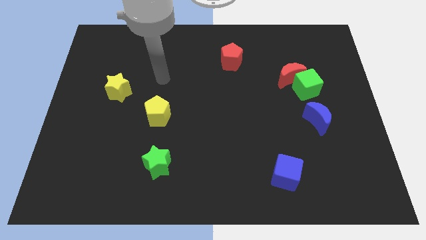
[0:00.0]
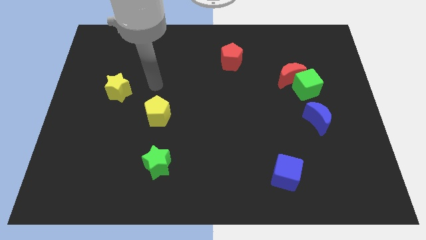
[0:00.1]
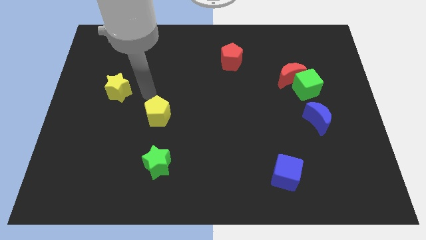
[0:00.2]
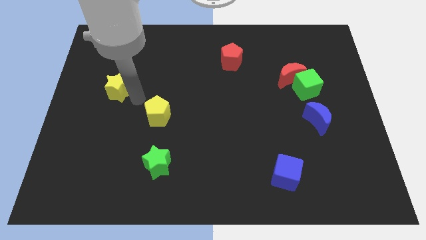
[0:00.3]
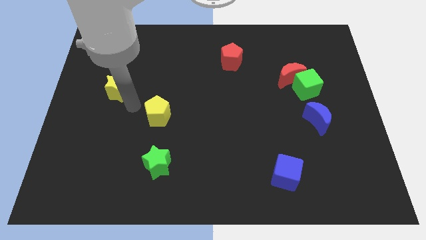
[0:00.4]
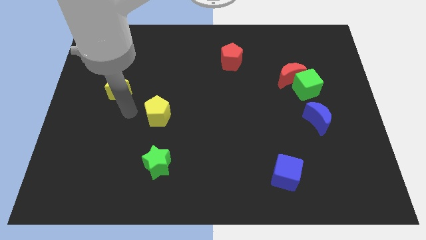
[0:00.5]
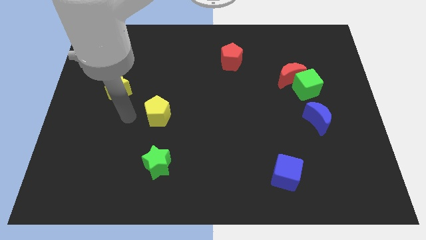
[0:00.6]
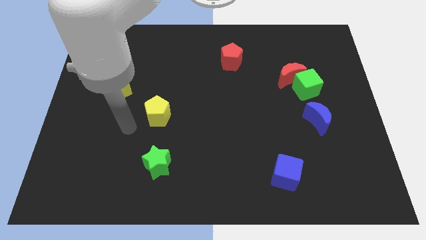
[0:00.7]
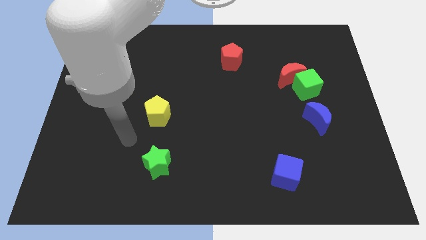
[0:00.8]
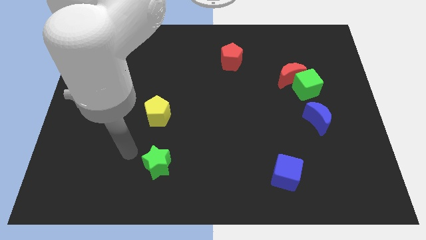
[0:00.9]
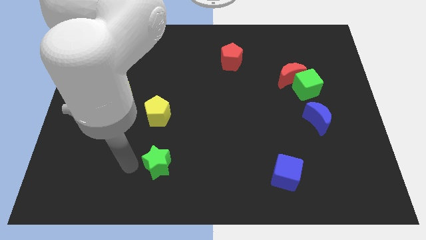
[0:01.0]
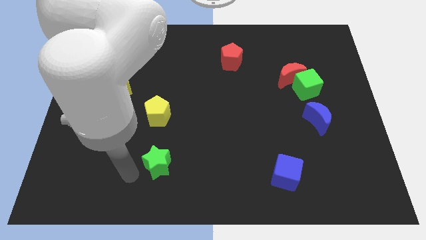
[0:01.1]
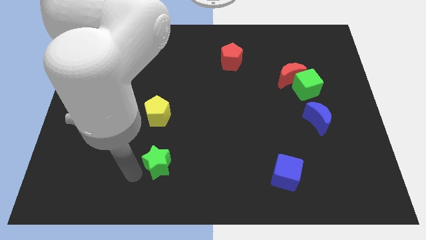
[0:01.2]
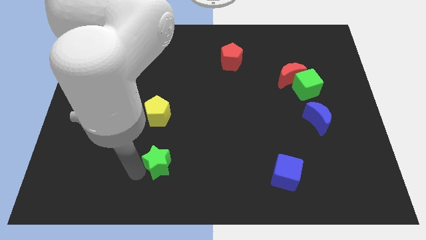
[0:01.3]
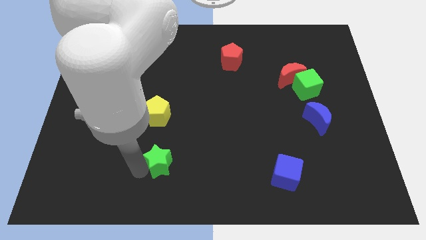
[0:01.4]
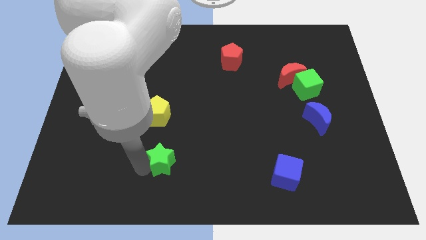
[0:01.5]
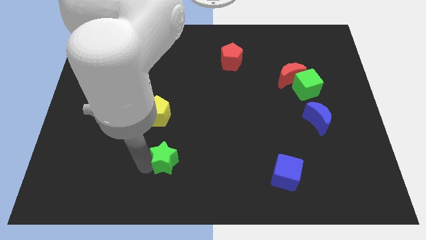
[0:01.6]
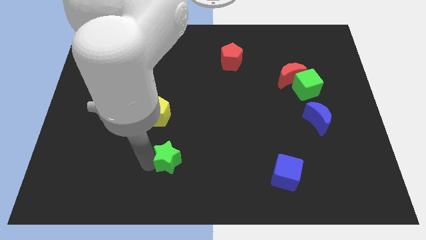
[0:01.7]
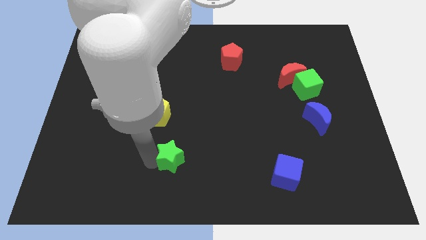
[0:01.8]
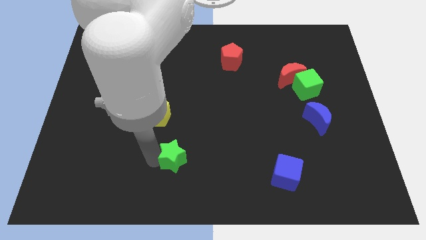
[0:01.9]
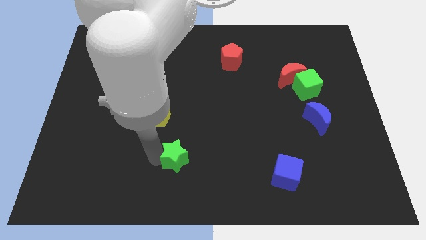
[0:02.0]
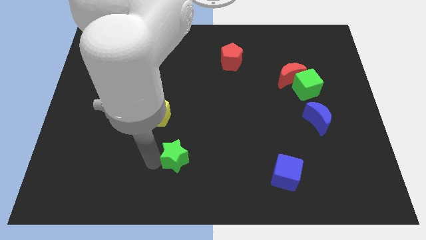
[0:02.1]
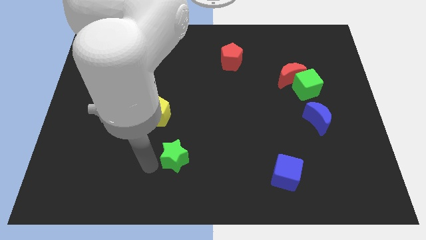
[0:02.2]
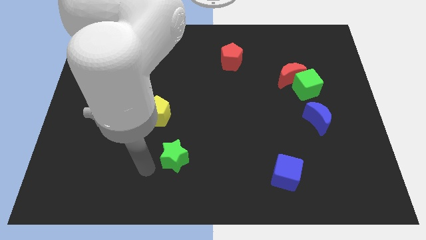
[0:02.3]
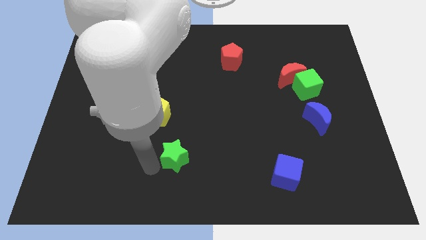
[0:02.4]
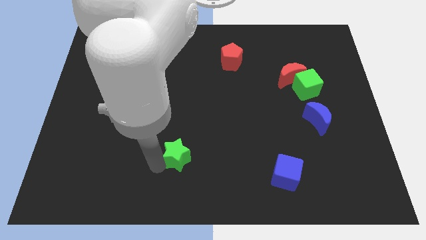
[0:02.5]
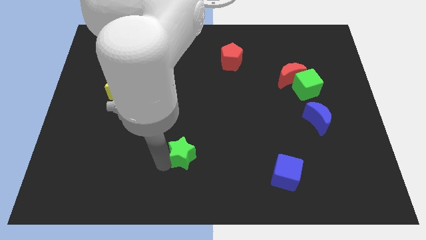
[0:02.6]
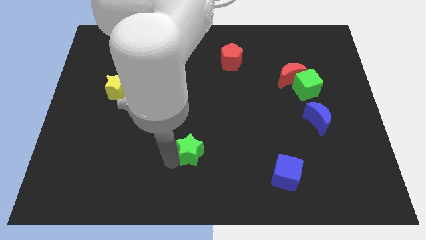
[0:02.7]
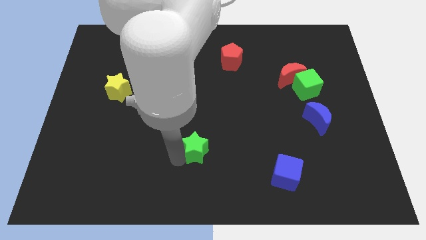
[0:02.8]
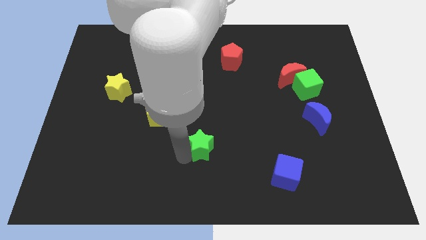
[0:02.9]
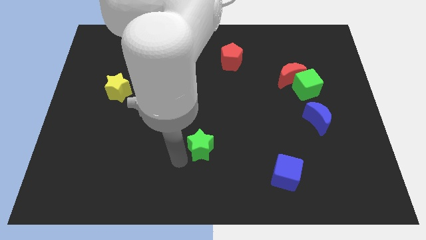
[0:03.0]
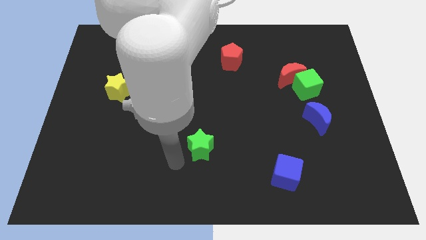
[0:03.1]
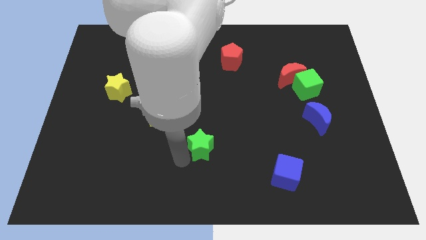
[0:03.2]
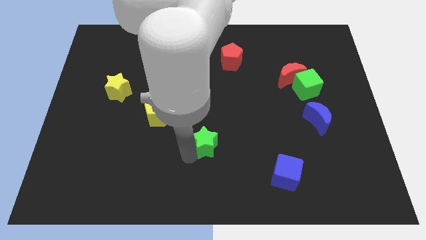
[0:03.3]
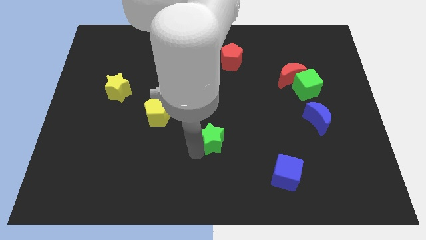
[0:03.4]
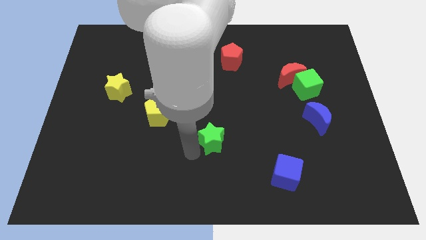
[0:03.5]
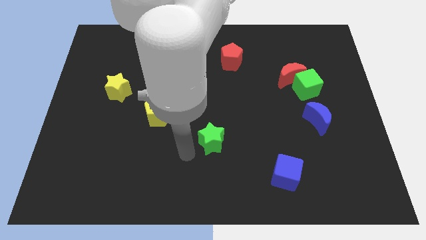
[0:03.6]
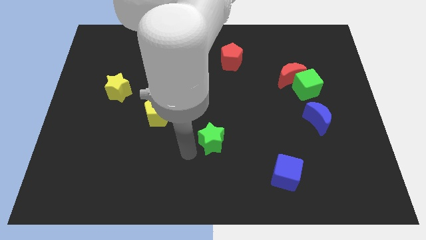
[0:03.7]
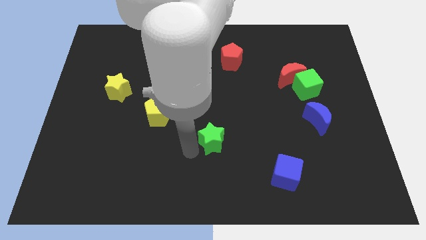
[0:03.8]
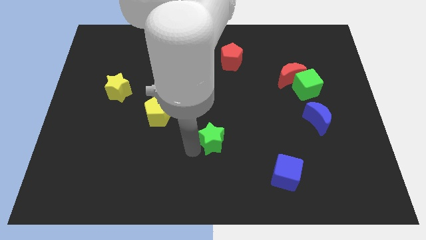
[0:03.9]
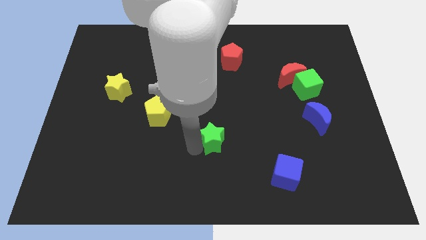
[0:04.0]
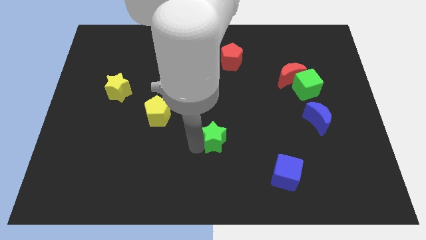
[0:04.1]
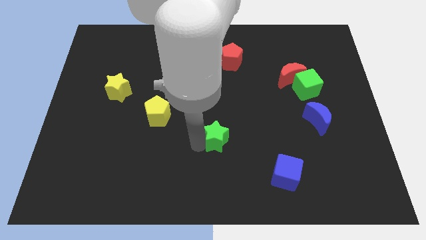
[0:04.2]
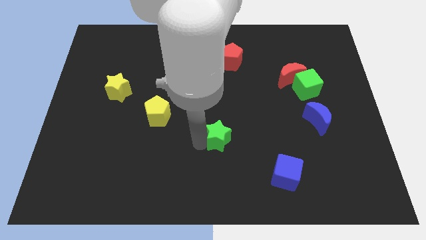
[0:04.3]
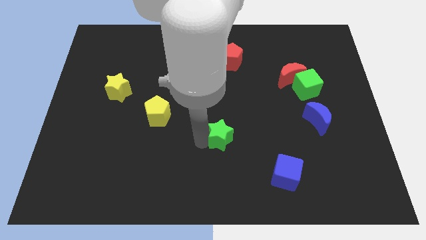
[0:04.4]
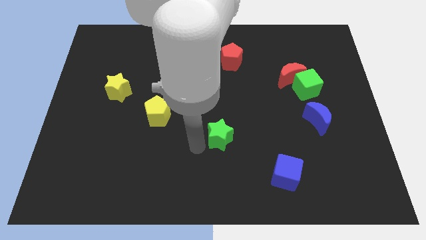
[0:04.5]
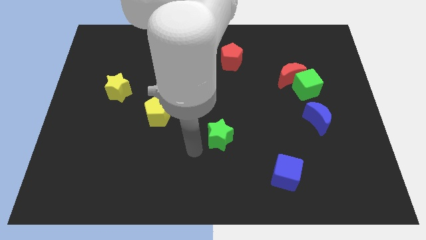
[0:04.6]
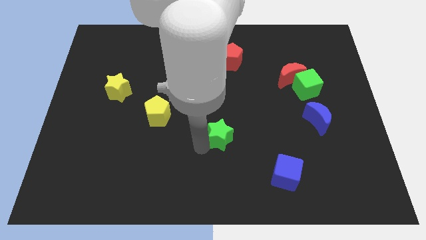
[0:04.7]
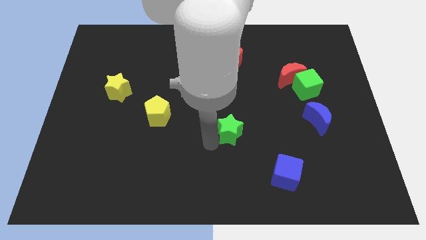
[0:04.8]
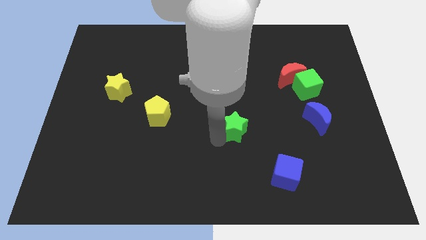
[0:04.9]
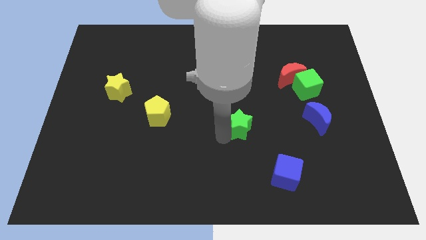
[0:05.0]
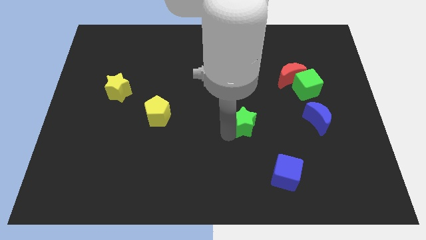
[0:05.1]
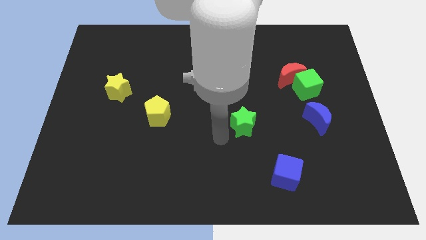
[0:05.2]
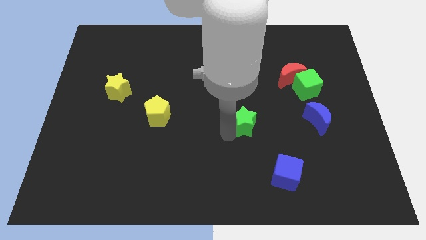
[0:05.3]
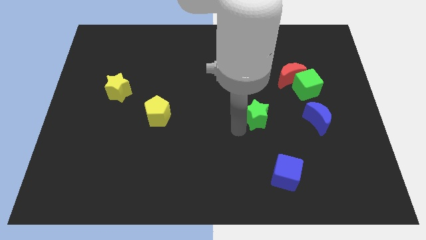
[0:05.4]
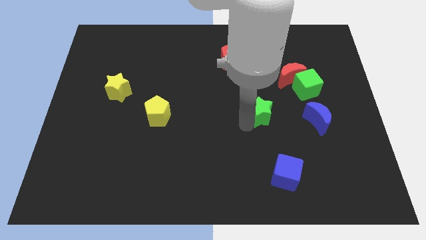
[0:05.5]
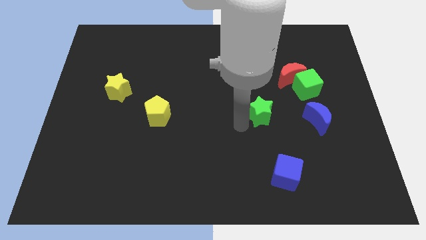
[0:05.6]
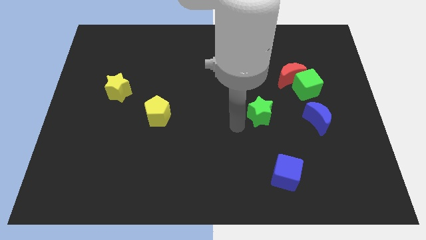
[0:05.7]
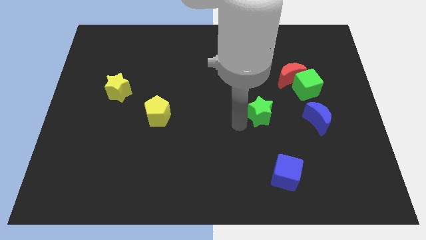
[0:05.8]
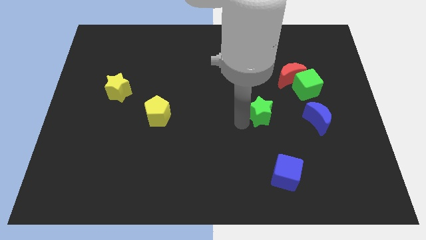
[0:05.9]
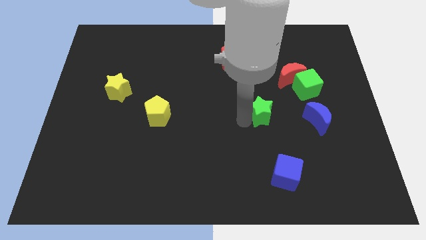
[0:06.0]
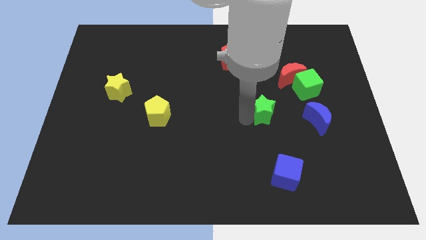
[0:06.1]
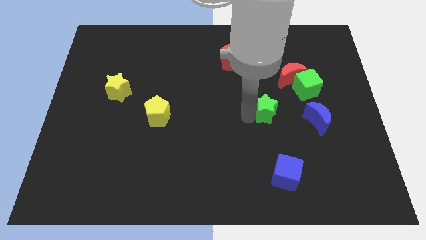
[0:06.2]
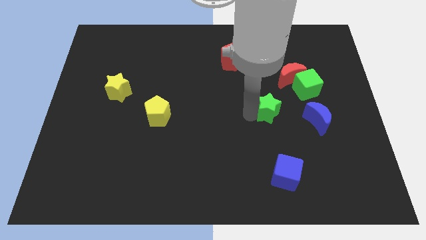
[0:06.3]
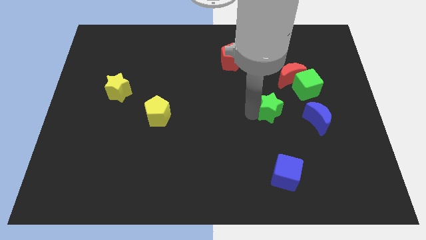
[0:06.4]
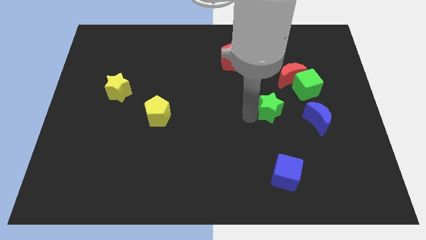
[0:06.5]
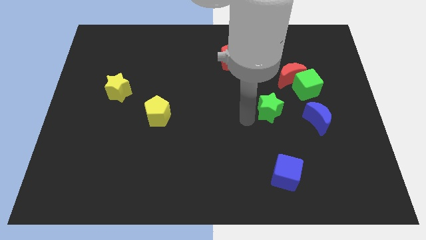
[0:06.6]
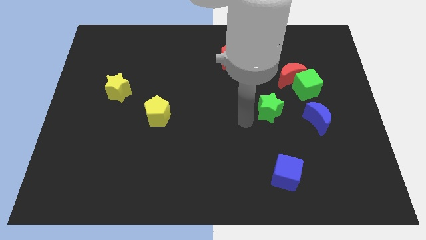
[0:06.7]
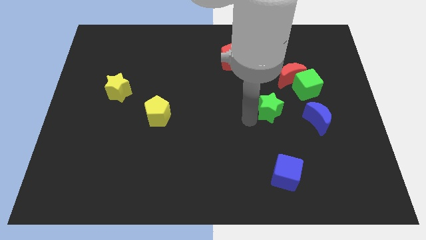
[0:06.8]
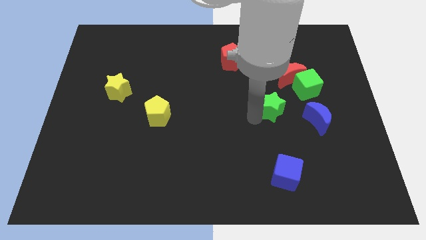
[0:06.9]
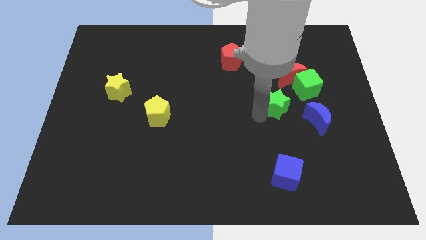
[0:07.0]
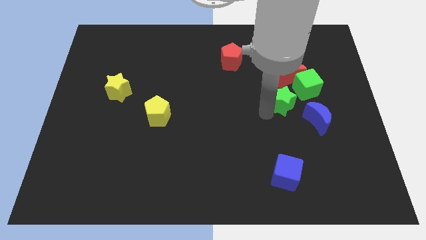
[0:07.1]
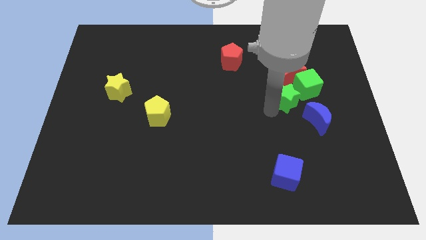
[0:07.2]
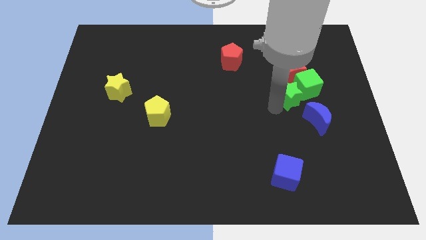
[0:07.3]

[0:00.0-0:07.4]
move the green star close to the green cube
